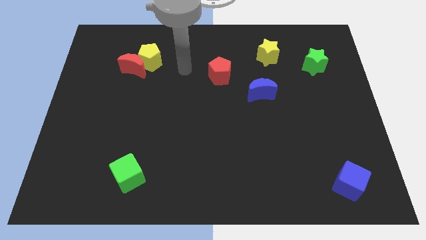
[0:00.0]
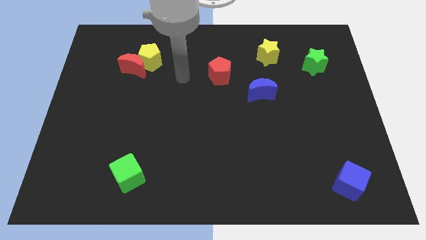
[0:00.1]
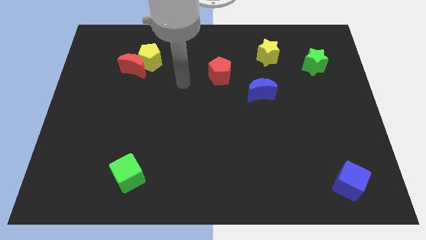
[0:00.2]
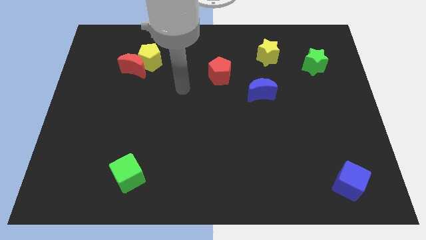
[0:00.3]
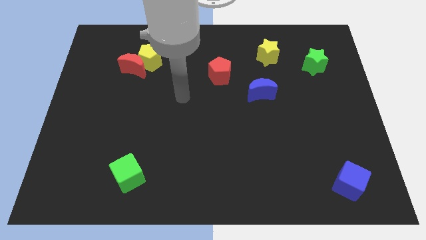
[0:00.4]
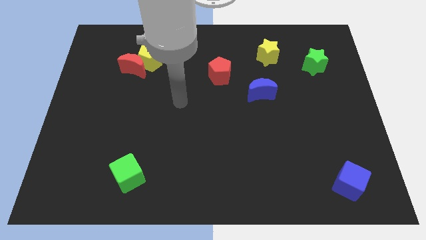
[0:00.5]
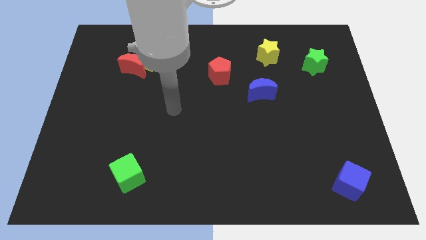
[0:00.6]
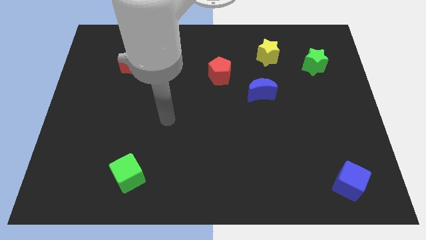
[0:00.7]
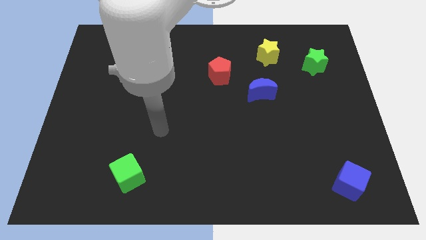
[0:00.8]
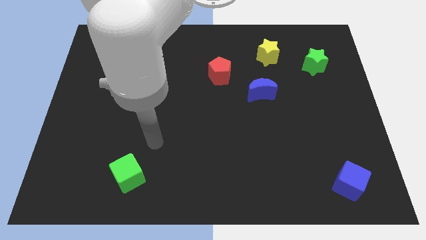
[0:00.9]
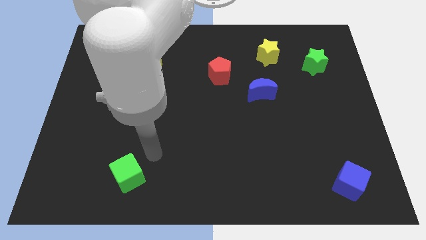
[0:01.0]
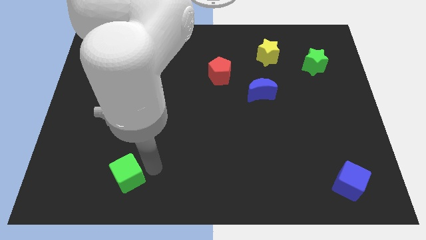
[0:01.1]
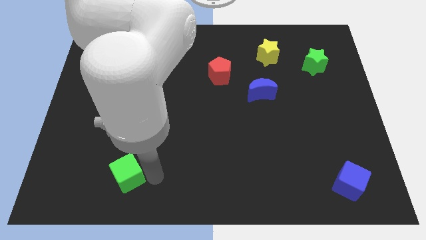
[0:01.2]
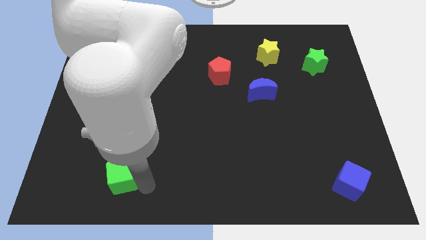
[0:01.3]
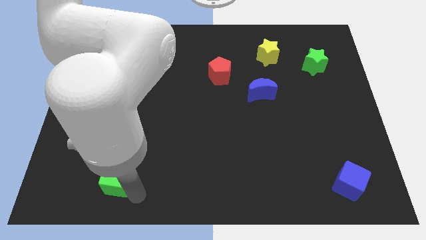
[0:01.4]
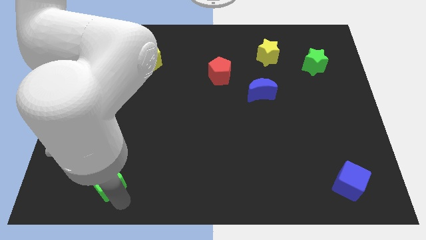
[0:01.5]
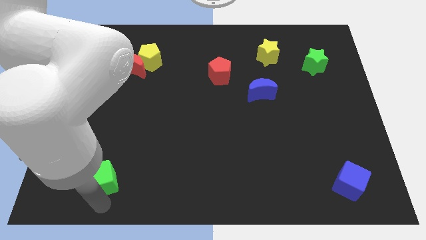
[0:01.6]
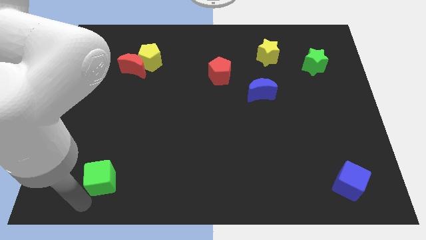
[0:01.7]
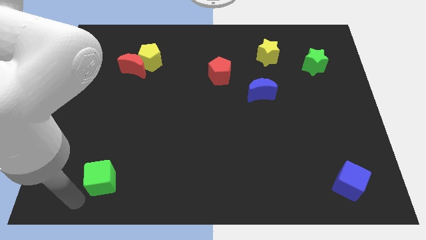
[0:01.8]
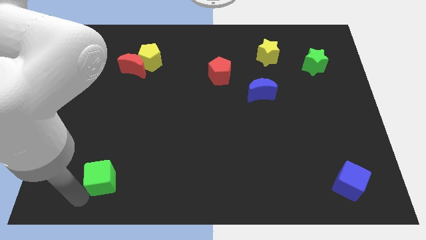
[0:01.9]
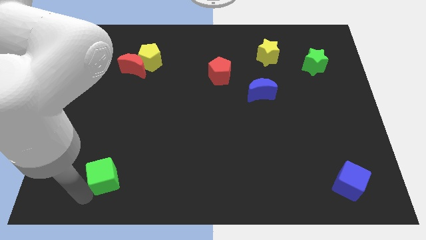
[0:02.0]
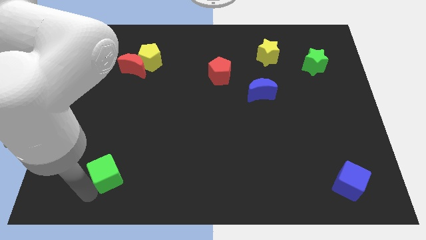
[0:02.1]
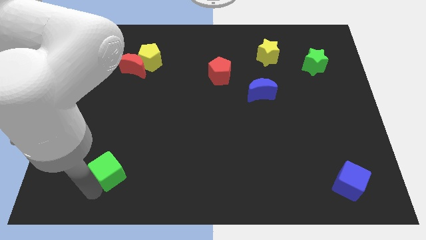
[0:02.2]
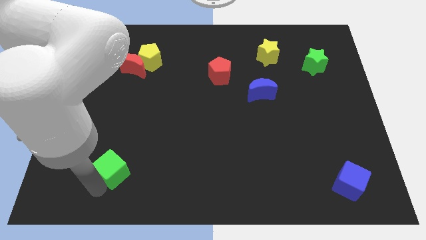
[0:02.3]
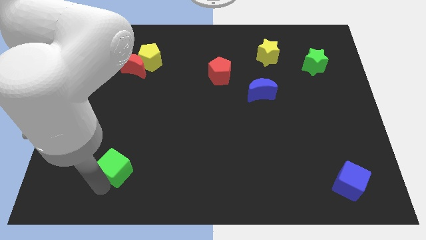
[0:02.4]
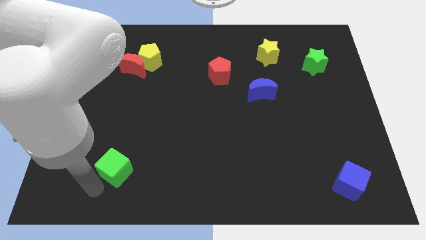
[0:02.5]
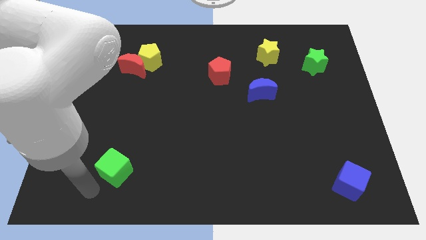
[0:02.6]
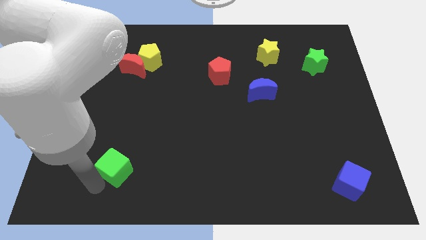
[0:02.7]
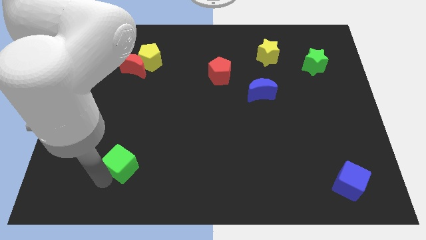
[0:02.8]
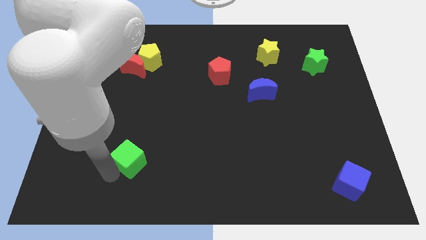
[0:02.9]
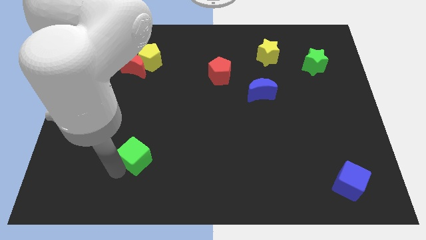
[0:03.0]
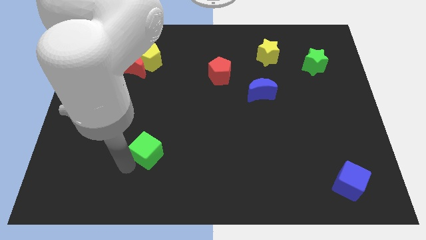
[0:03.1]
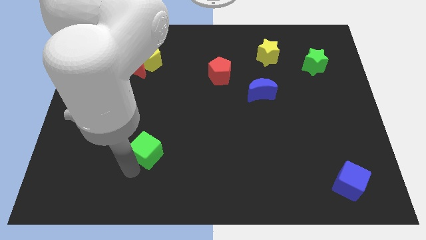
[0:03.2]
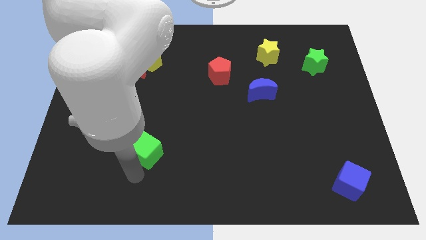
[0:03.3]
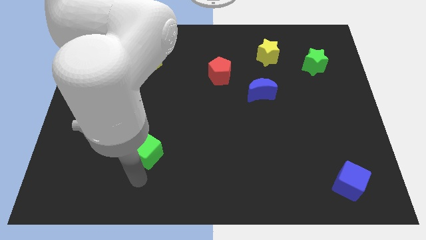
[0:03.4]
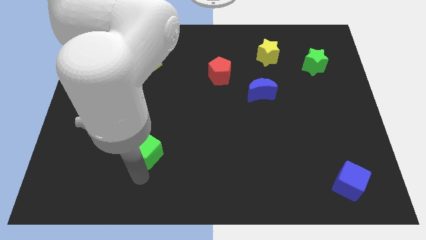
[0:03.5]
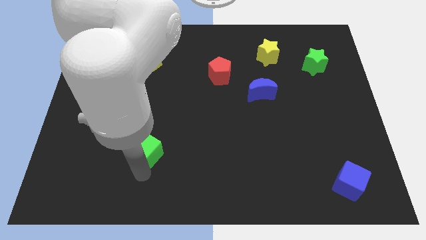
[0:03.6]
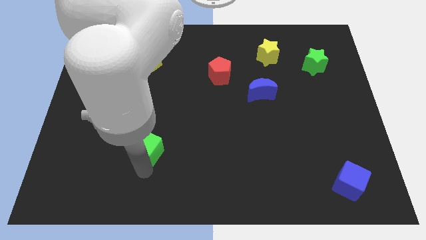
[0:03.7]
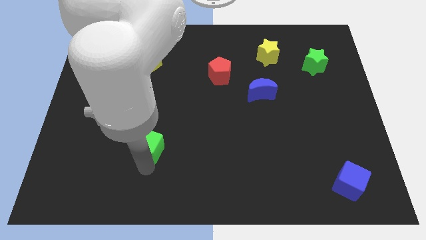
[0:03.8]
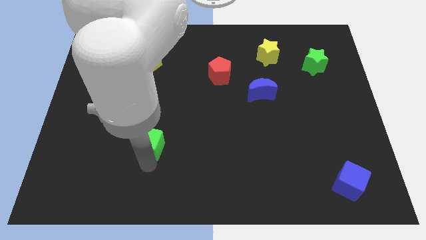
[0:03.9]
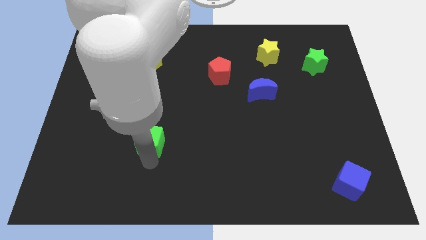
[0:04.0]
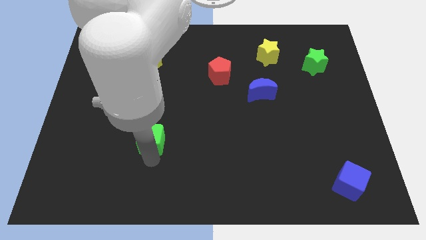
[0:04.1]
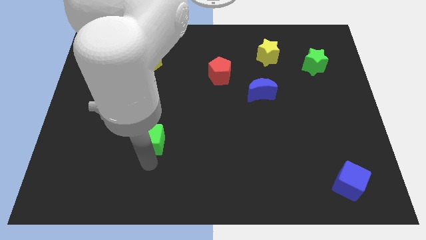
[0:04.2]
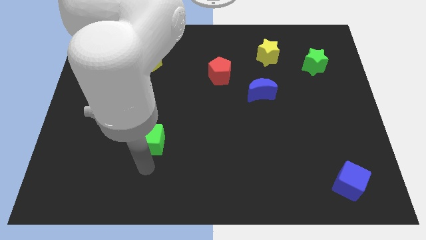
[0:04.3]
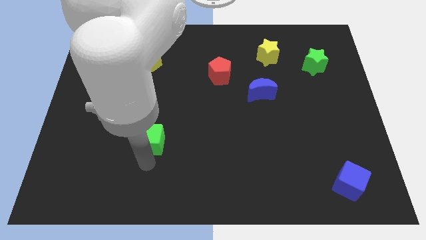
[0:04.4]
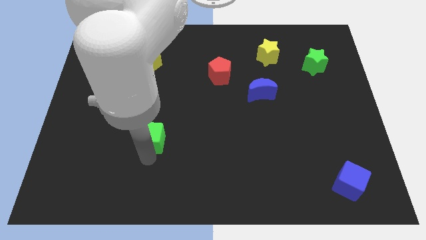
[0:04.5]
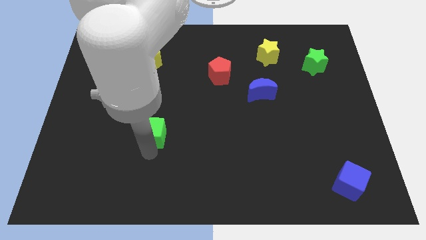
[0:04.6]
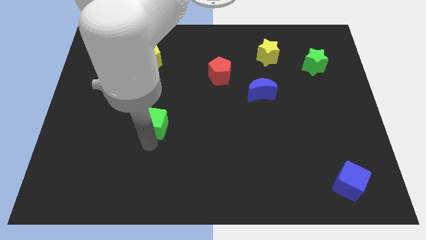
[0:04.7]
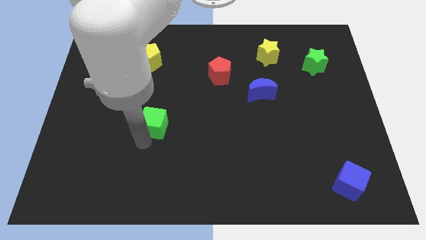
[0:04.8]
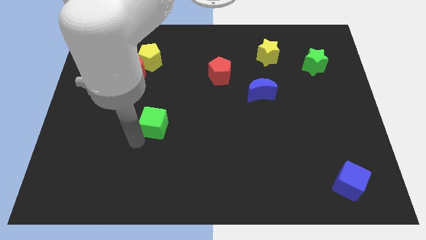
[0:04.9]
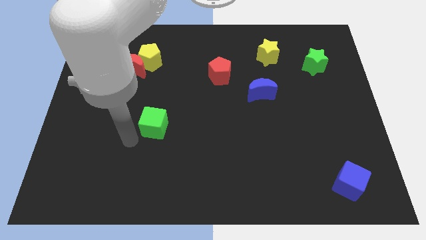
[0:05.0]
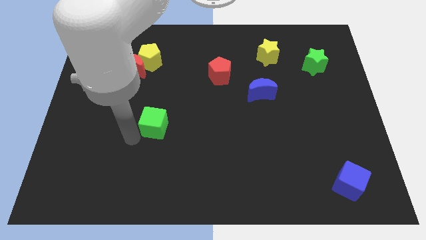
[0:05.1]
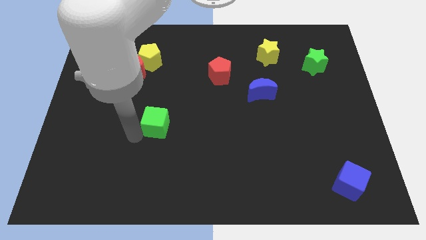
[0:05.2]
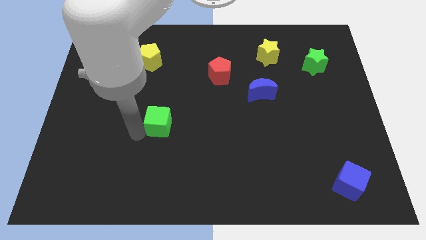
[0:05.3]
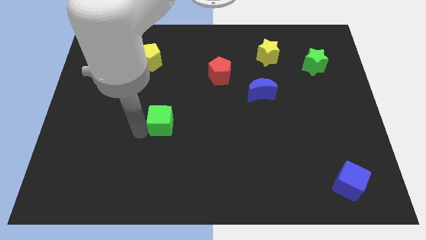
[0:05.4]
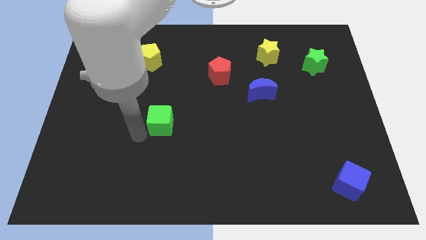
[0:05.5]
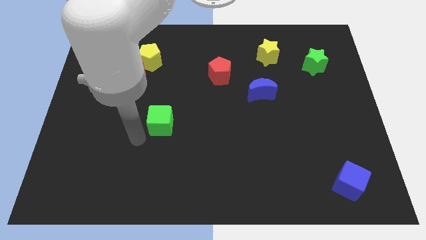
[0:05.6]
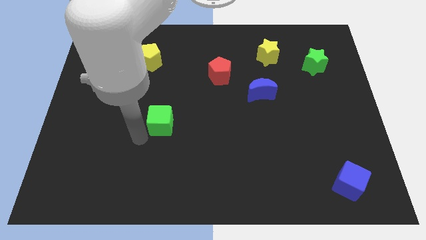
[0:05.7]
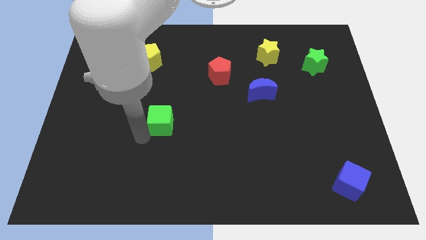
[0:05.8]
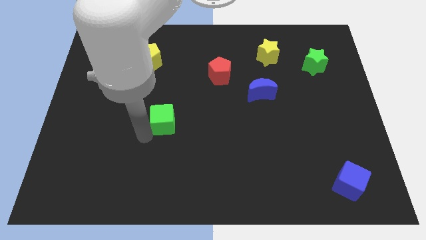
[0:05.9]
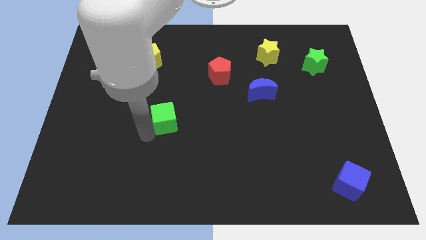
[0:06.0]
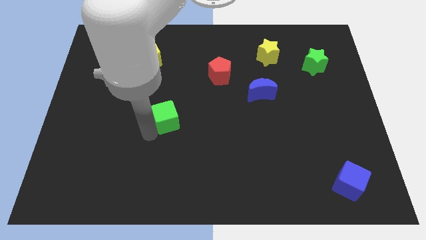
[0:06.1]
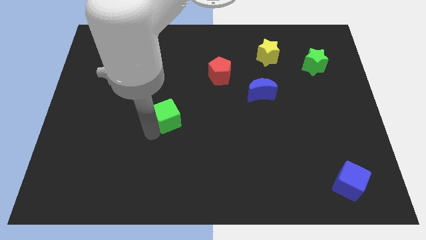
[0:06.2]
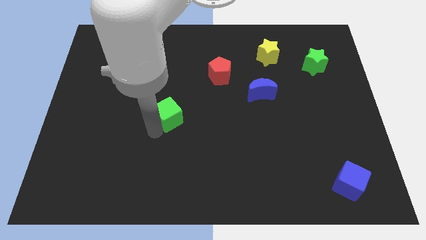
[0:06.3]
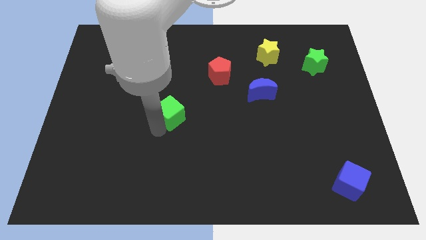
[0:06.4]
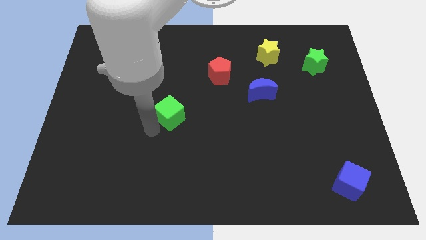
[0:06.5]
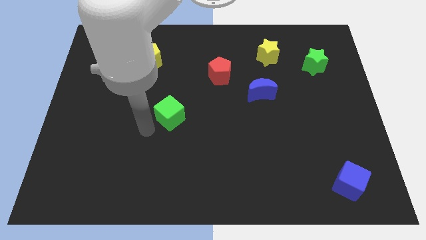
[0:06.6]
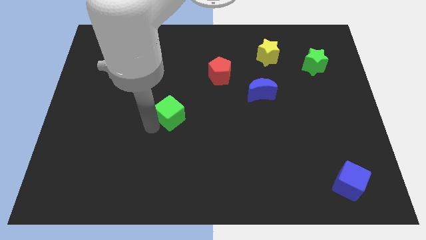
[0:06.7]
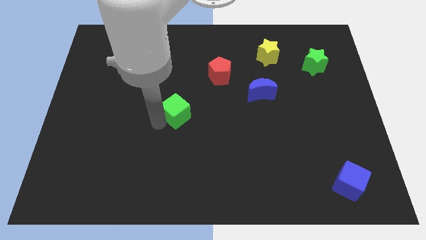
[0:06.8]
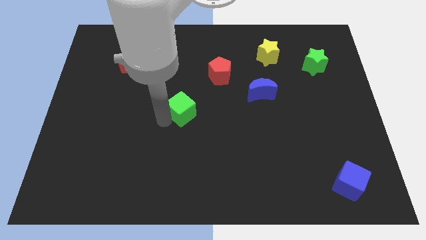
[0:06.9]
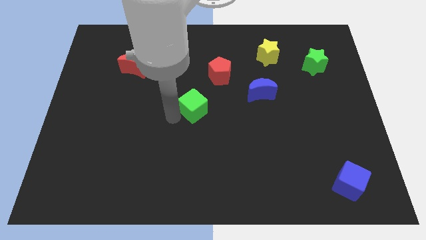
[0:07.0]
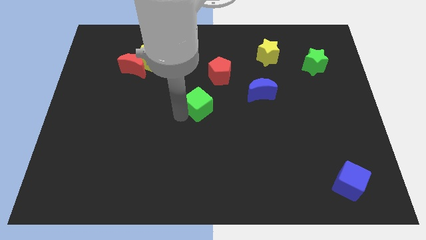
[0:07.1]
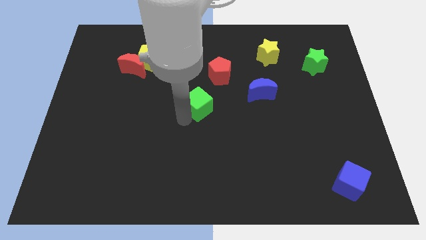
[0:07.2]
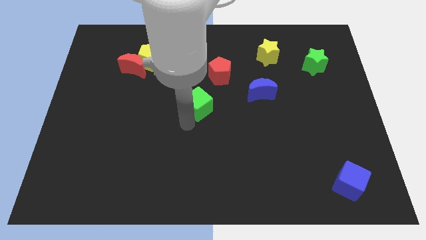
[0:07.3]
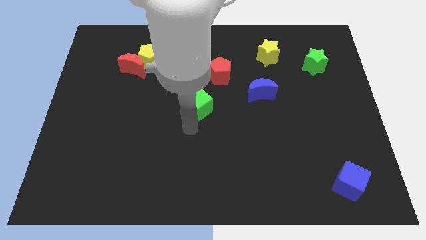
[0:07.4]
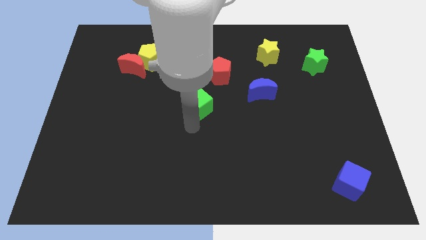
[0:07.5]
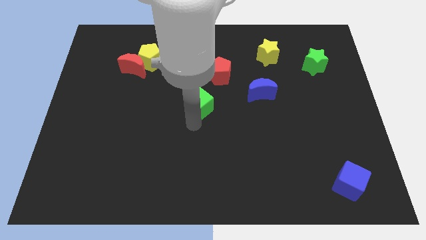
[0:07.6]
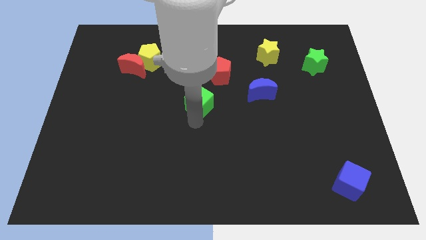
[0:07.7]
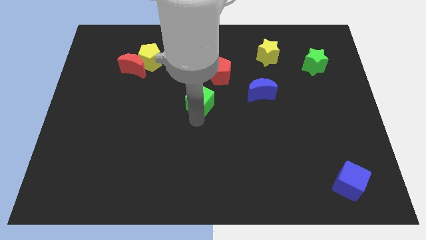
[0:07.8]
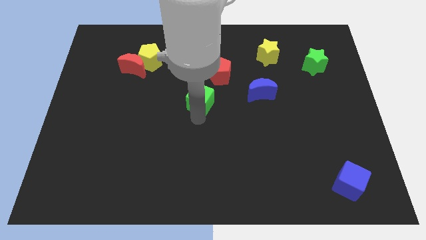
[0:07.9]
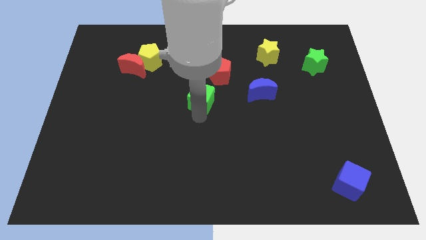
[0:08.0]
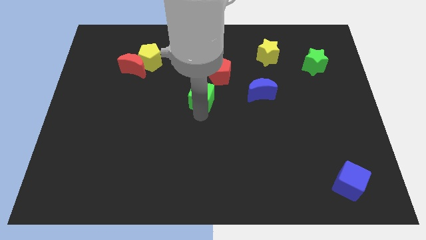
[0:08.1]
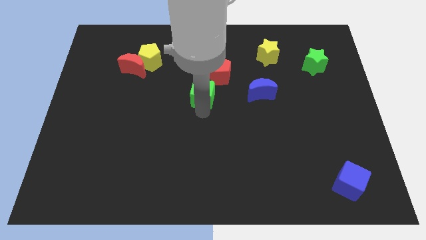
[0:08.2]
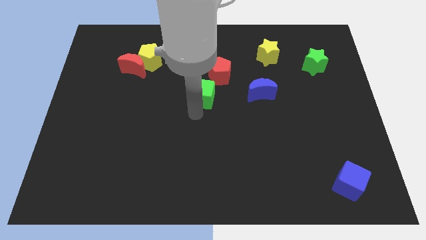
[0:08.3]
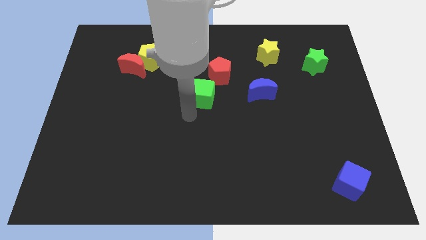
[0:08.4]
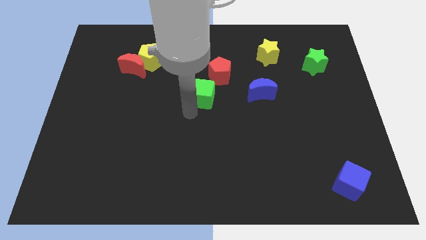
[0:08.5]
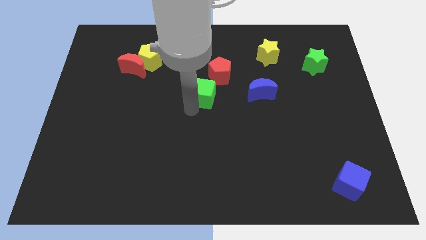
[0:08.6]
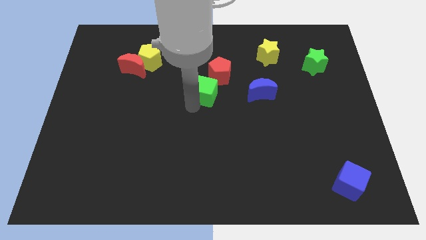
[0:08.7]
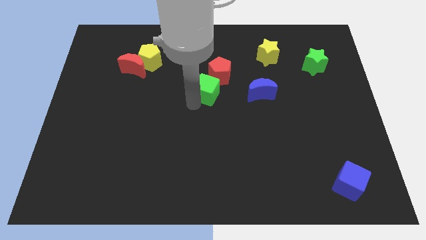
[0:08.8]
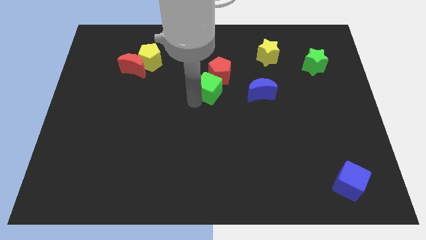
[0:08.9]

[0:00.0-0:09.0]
move the green cube to the red pentagon
